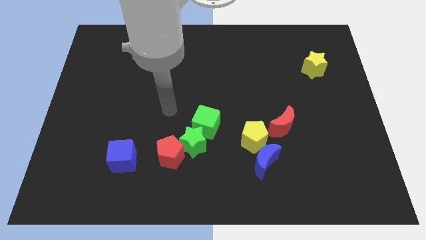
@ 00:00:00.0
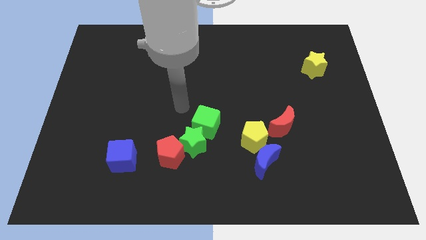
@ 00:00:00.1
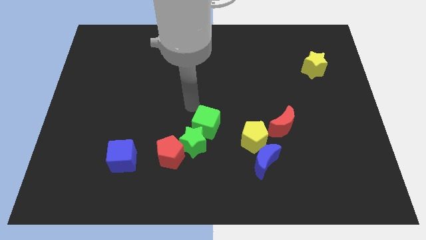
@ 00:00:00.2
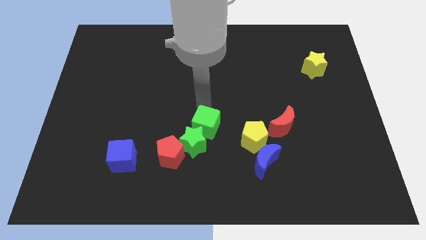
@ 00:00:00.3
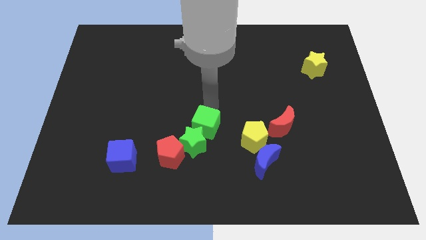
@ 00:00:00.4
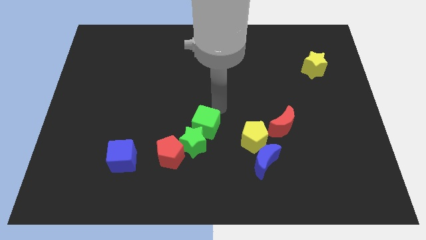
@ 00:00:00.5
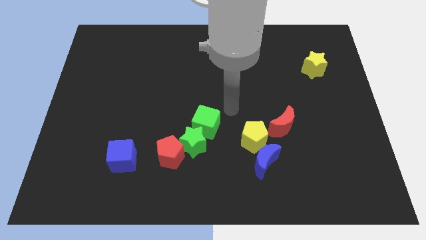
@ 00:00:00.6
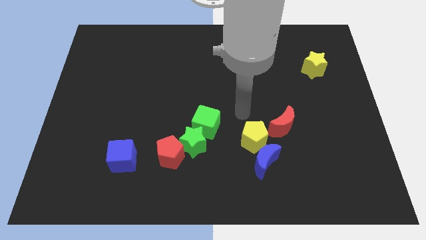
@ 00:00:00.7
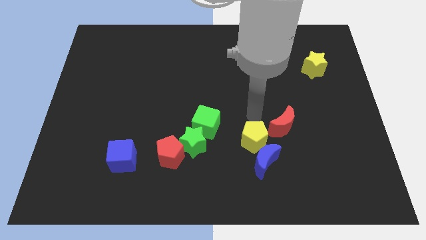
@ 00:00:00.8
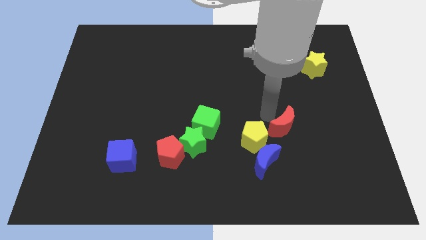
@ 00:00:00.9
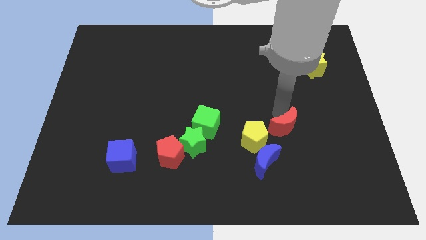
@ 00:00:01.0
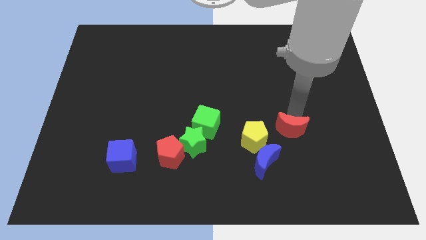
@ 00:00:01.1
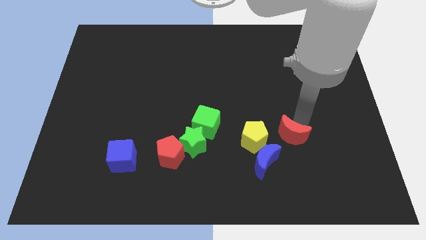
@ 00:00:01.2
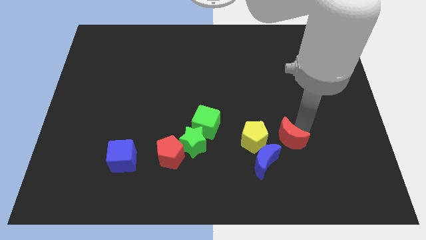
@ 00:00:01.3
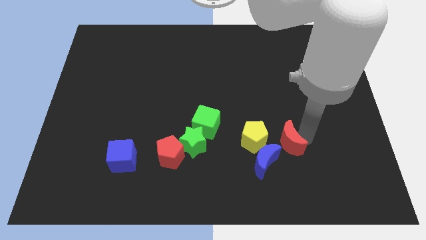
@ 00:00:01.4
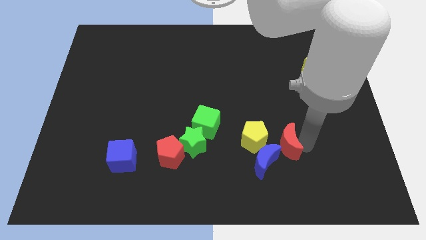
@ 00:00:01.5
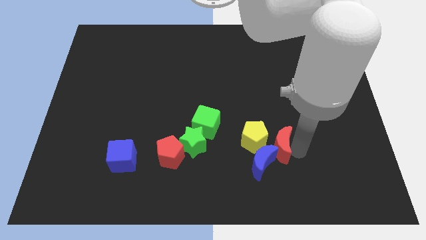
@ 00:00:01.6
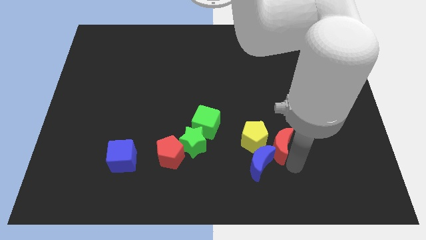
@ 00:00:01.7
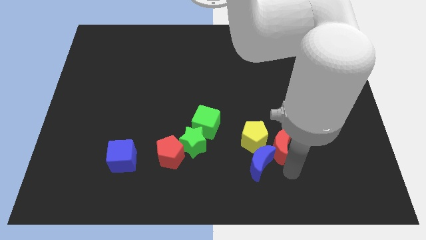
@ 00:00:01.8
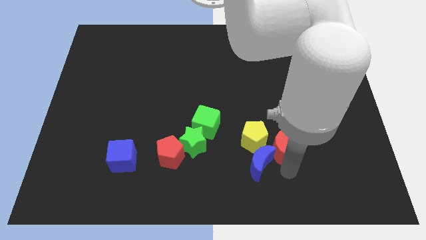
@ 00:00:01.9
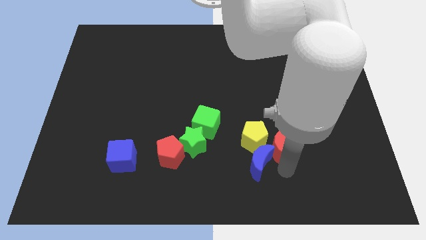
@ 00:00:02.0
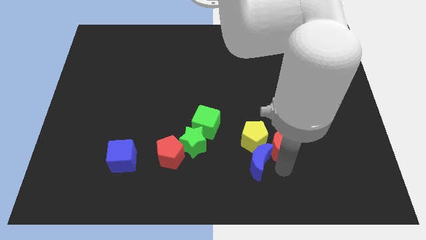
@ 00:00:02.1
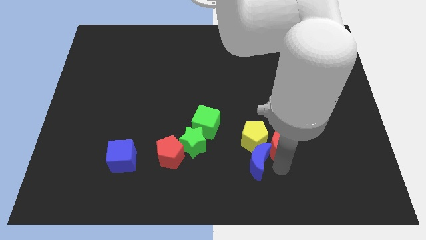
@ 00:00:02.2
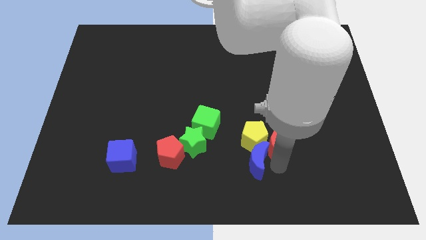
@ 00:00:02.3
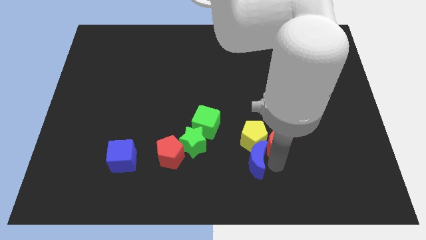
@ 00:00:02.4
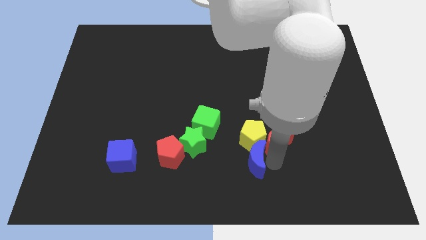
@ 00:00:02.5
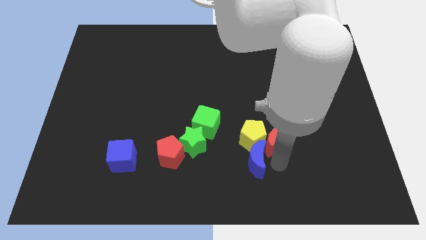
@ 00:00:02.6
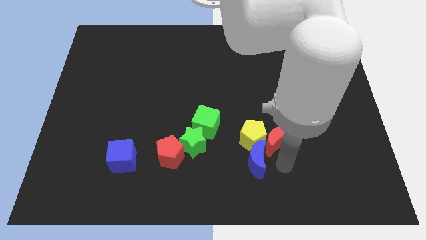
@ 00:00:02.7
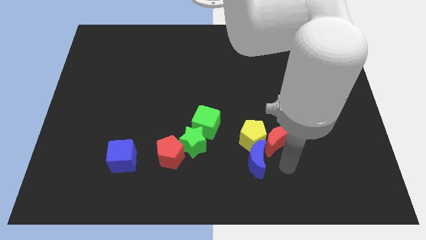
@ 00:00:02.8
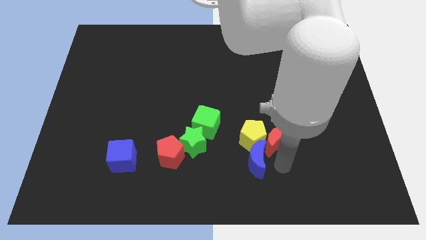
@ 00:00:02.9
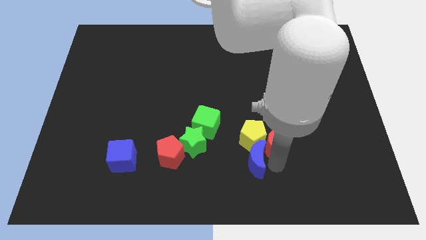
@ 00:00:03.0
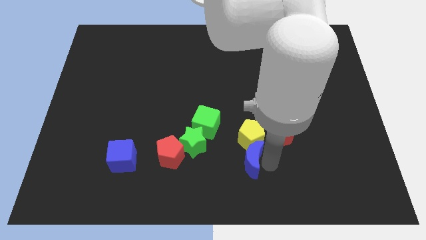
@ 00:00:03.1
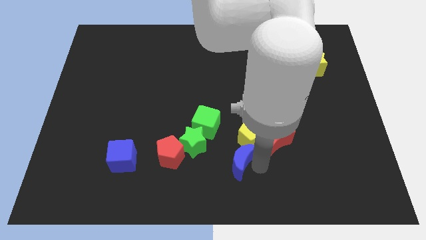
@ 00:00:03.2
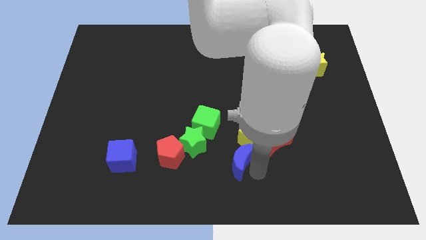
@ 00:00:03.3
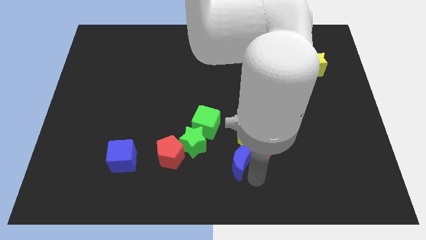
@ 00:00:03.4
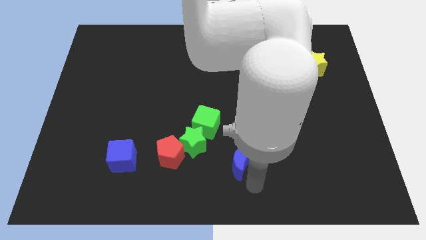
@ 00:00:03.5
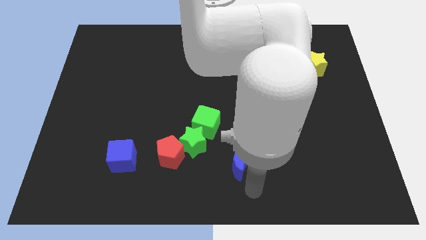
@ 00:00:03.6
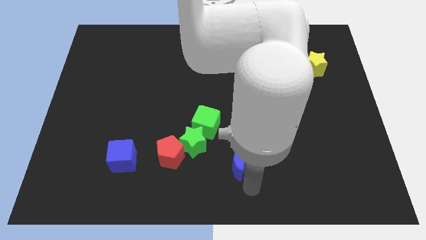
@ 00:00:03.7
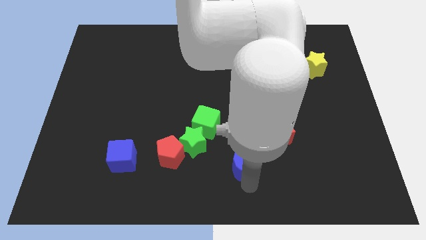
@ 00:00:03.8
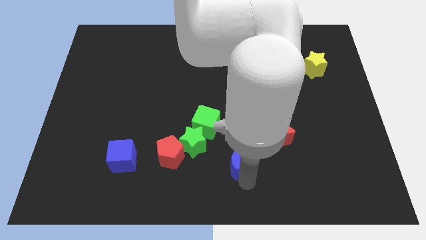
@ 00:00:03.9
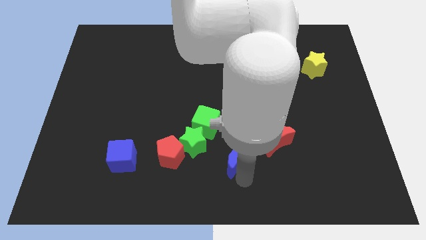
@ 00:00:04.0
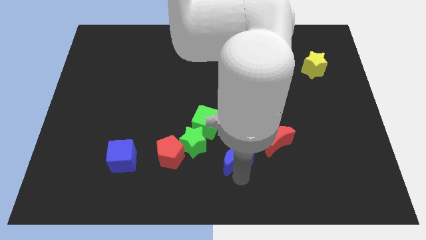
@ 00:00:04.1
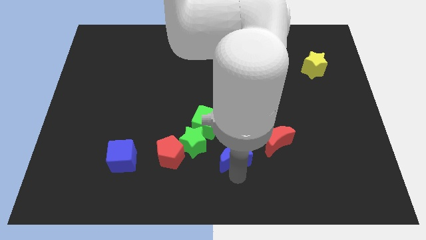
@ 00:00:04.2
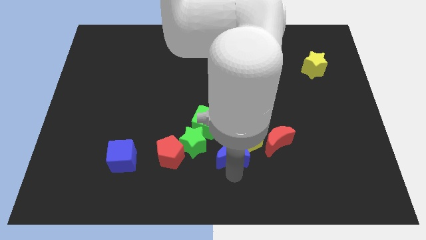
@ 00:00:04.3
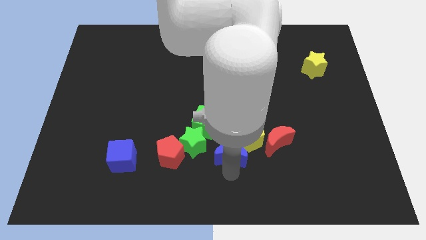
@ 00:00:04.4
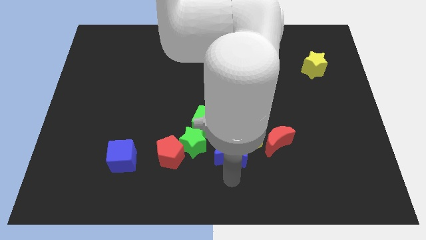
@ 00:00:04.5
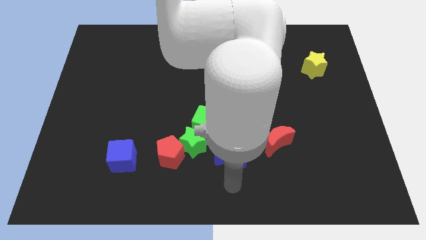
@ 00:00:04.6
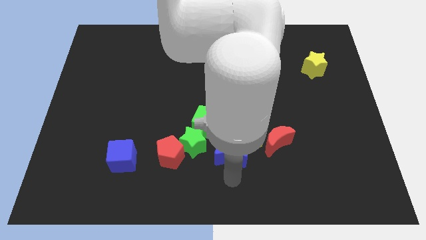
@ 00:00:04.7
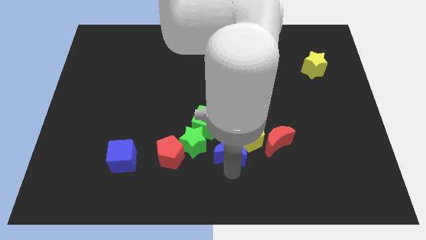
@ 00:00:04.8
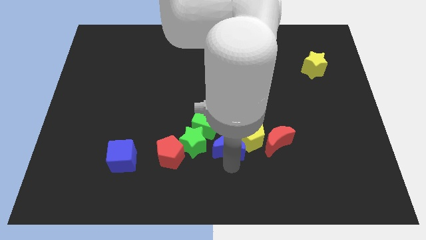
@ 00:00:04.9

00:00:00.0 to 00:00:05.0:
slightly push the blue moon up and then to the left

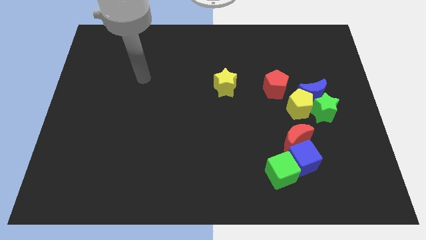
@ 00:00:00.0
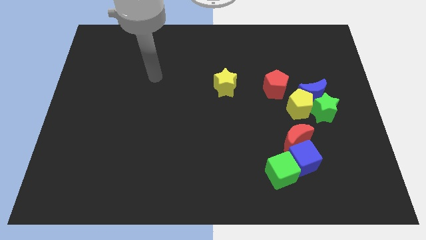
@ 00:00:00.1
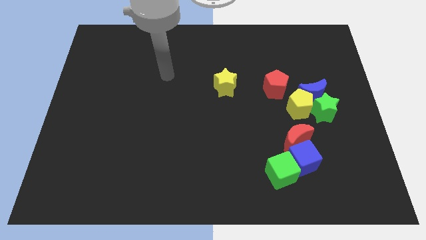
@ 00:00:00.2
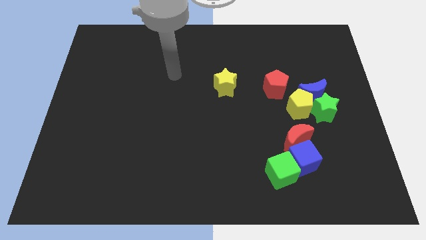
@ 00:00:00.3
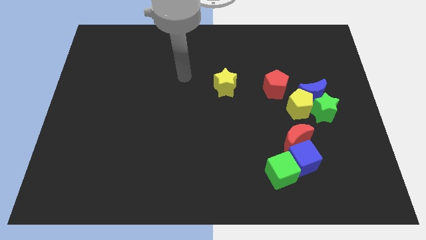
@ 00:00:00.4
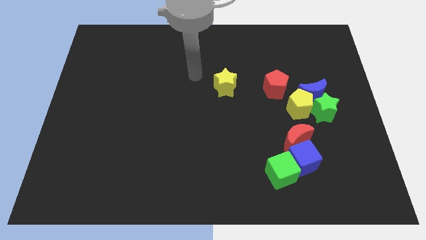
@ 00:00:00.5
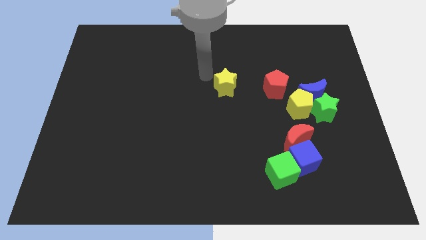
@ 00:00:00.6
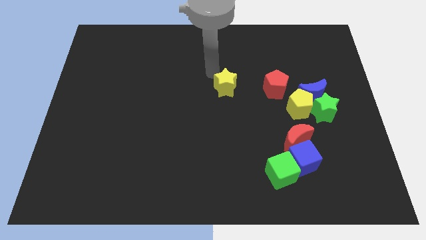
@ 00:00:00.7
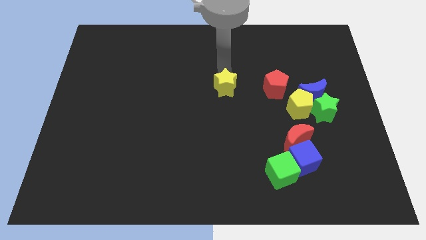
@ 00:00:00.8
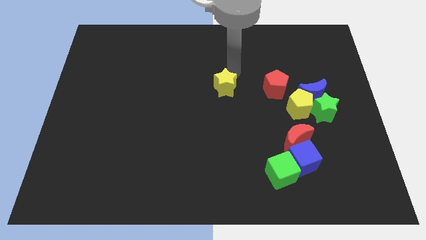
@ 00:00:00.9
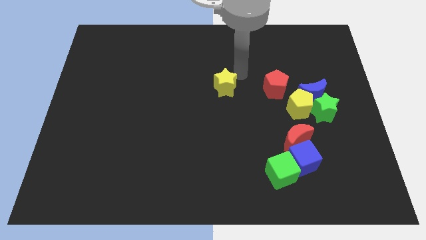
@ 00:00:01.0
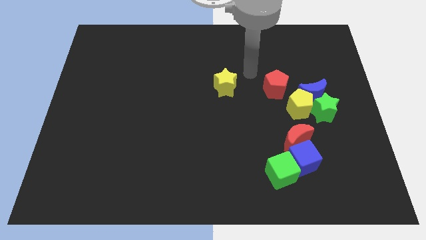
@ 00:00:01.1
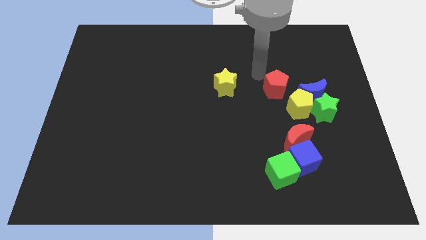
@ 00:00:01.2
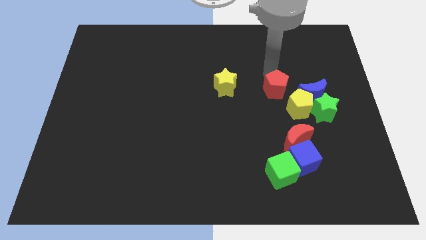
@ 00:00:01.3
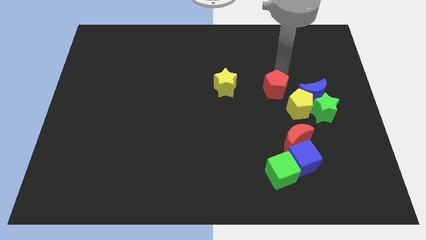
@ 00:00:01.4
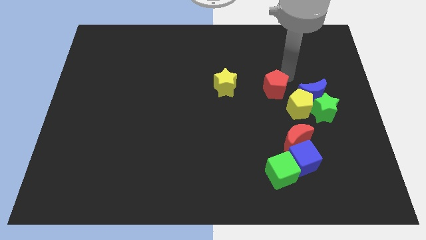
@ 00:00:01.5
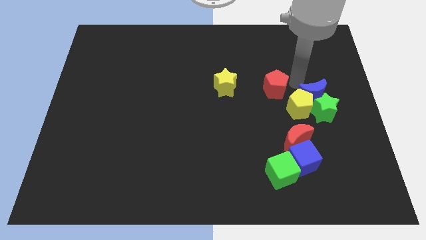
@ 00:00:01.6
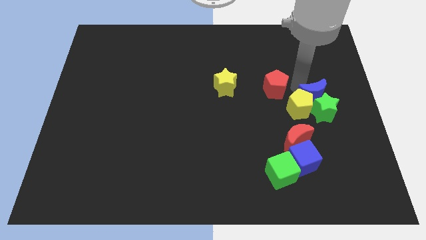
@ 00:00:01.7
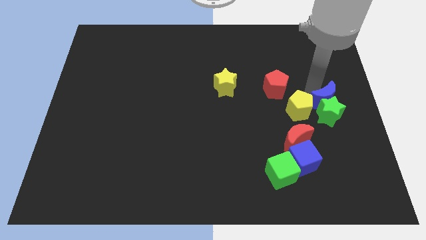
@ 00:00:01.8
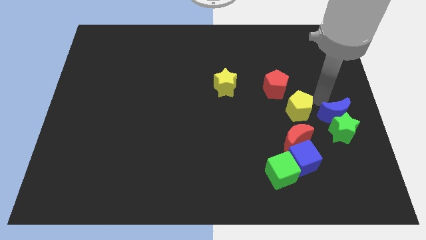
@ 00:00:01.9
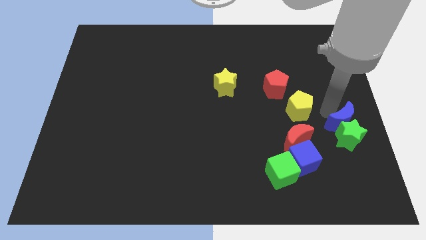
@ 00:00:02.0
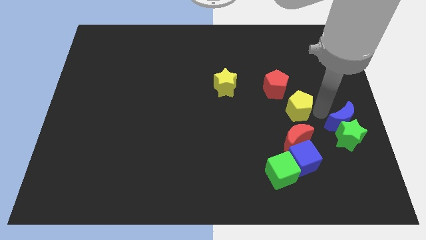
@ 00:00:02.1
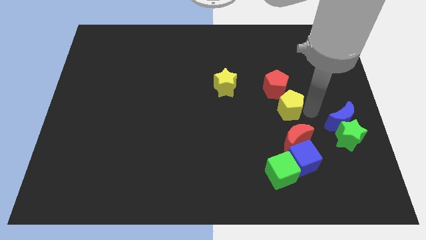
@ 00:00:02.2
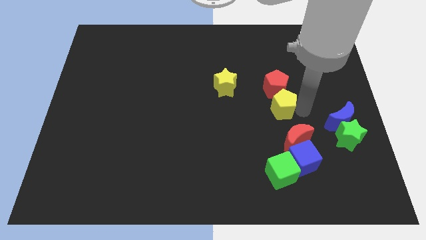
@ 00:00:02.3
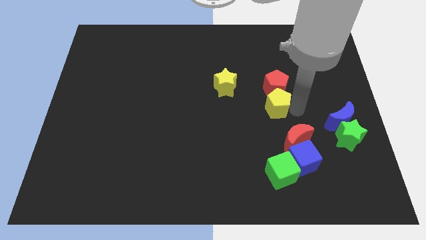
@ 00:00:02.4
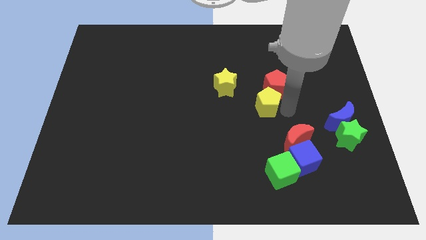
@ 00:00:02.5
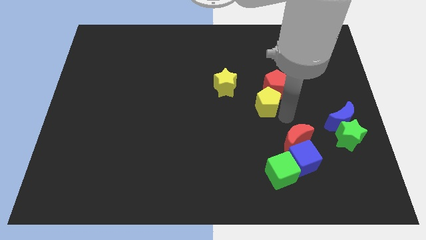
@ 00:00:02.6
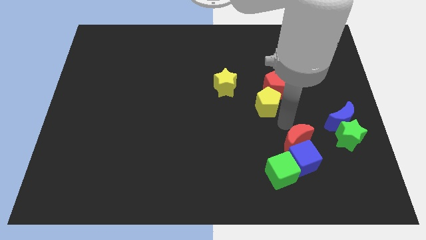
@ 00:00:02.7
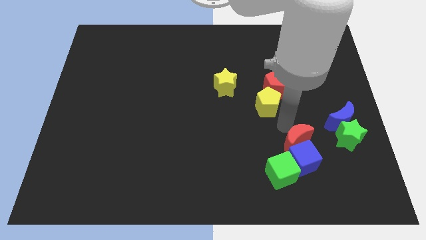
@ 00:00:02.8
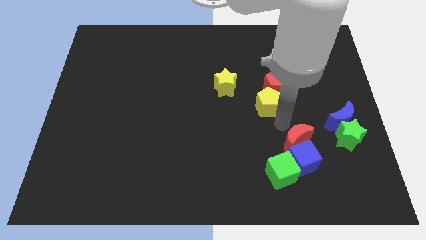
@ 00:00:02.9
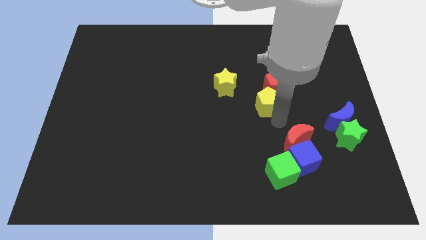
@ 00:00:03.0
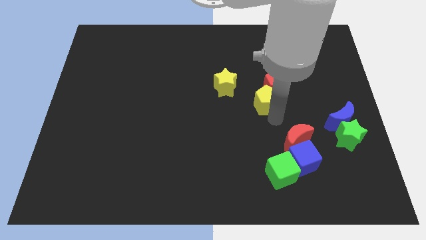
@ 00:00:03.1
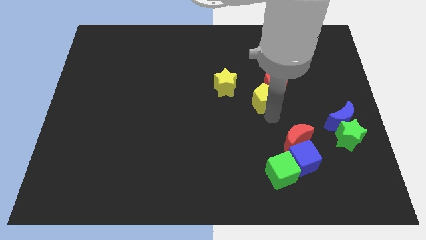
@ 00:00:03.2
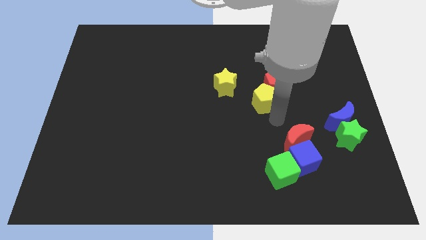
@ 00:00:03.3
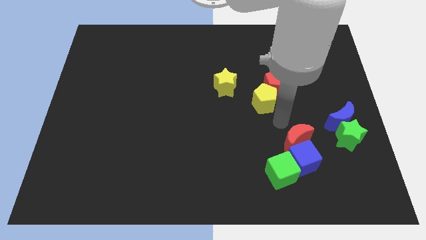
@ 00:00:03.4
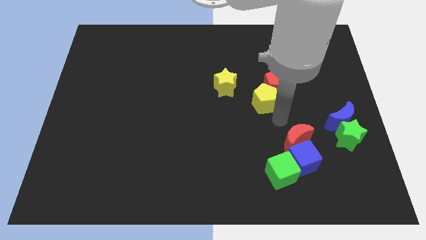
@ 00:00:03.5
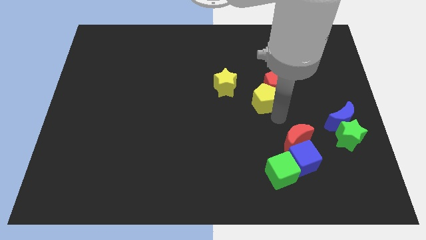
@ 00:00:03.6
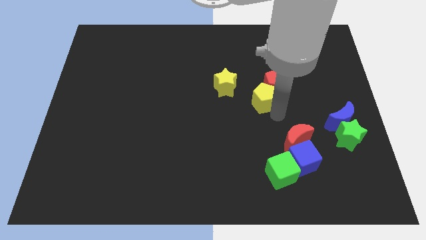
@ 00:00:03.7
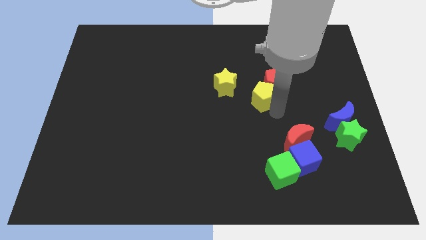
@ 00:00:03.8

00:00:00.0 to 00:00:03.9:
move the yellow pentagon up and to the left somewhat
